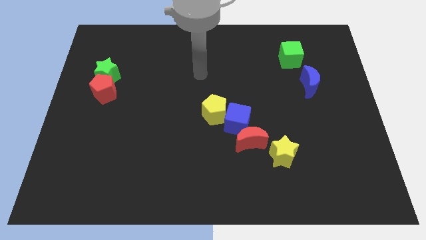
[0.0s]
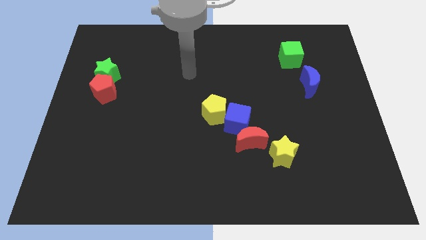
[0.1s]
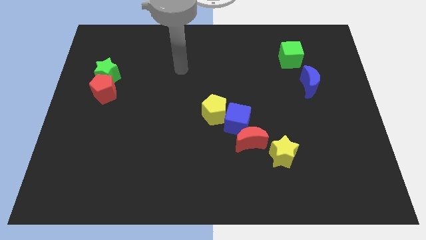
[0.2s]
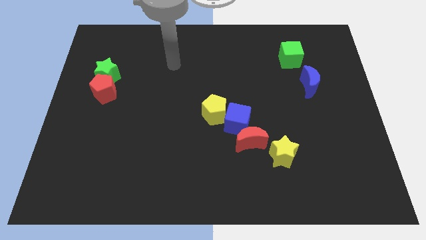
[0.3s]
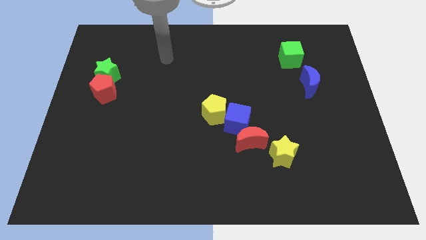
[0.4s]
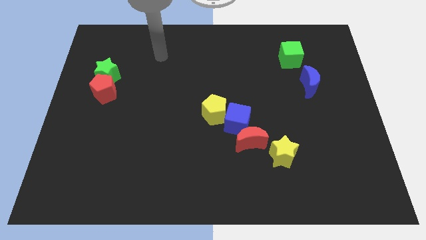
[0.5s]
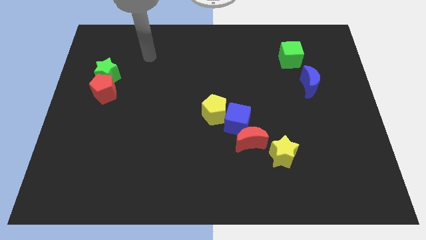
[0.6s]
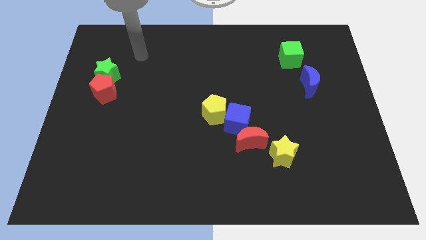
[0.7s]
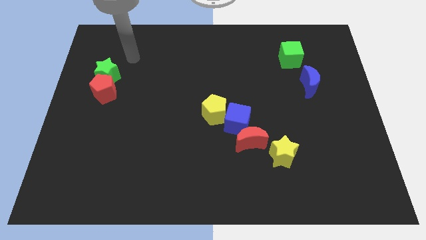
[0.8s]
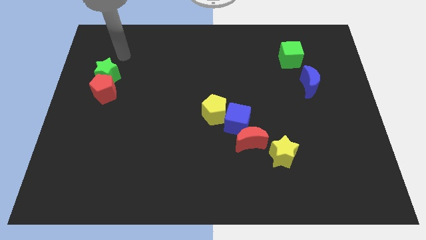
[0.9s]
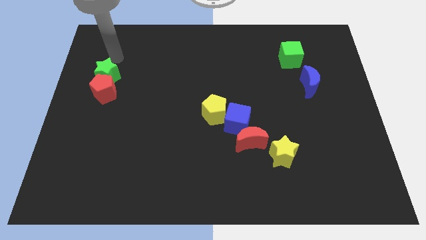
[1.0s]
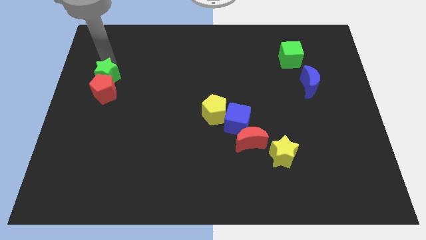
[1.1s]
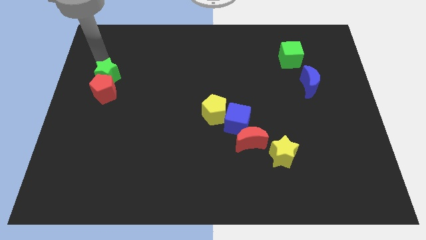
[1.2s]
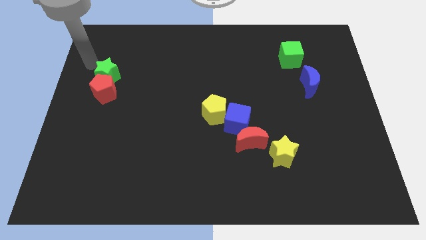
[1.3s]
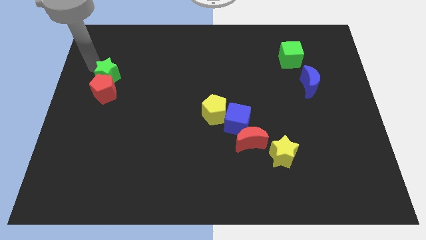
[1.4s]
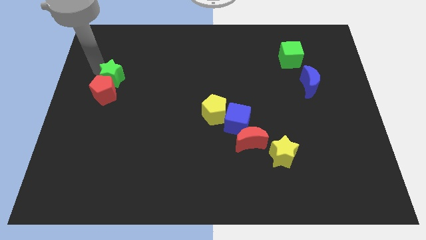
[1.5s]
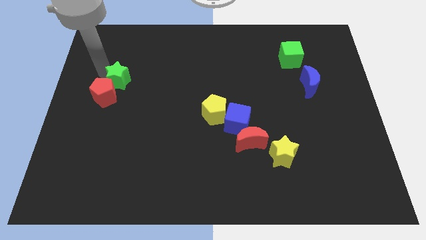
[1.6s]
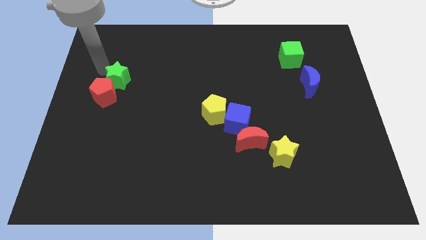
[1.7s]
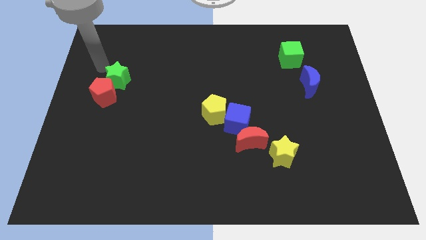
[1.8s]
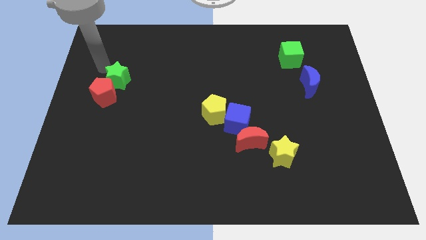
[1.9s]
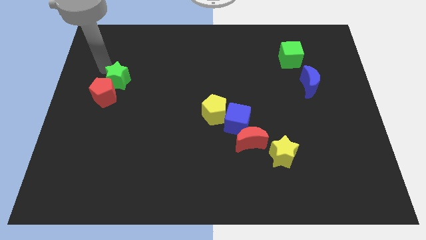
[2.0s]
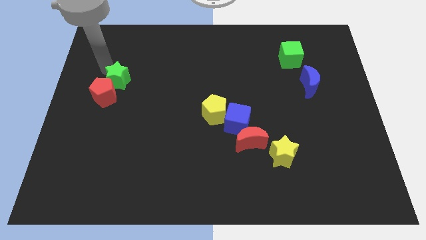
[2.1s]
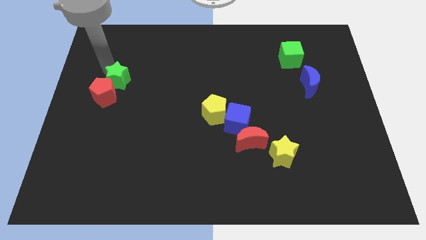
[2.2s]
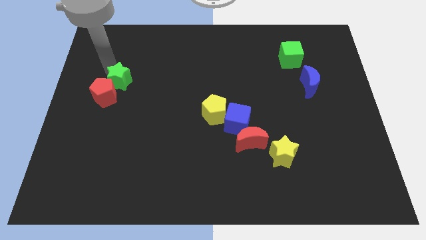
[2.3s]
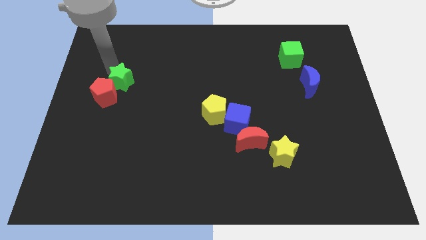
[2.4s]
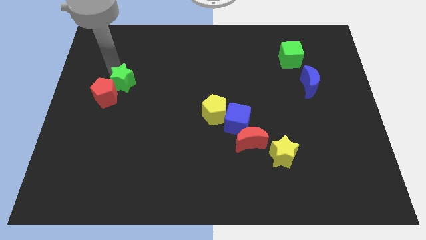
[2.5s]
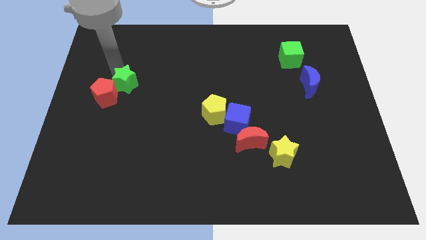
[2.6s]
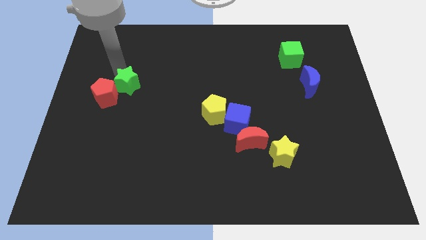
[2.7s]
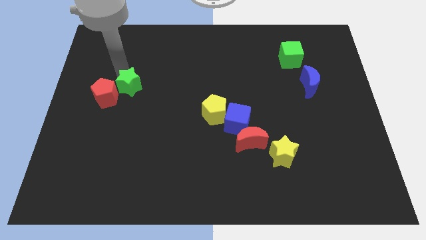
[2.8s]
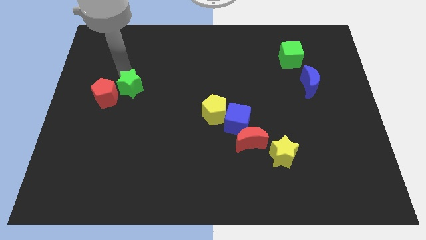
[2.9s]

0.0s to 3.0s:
move the green star down and to the right diagonally a little

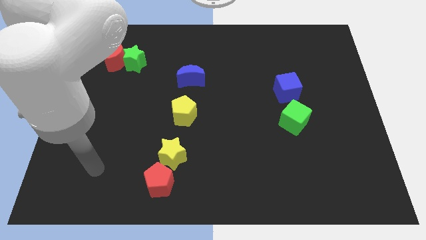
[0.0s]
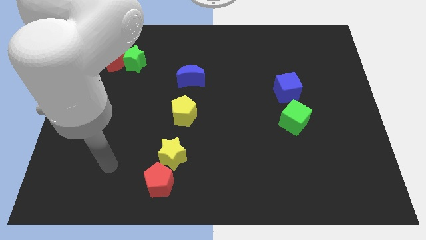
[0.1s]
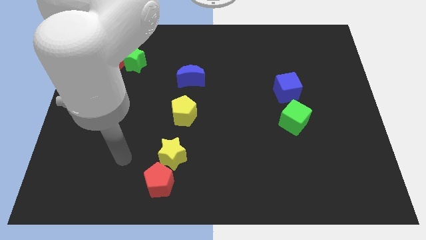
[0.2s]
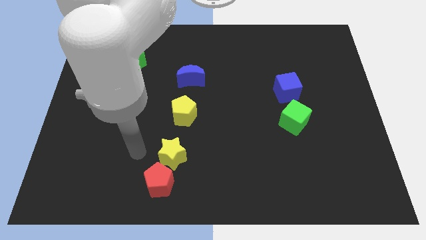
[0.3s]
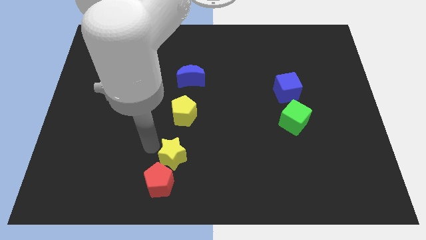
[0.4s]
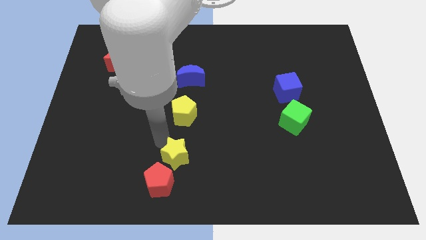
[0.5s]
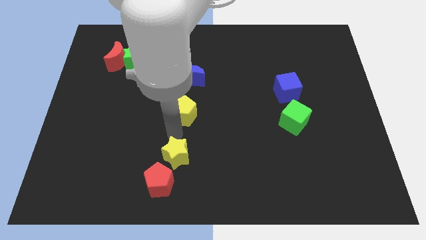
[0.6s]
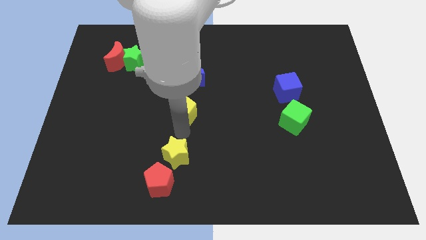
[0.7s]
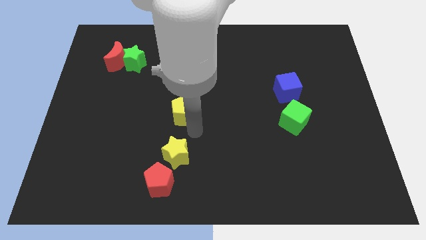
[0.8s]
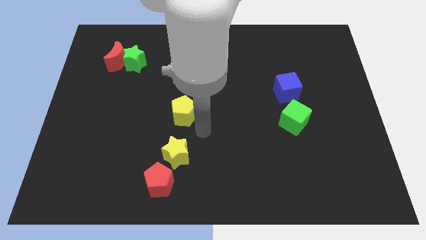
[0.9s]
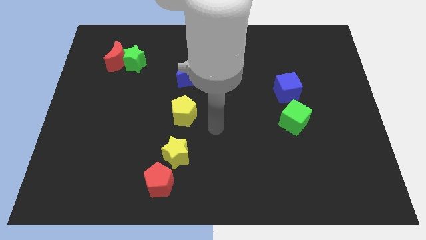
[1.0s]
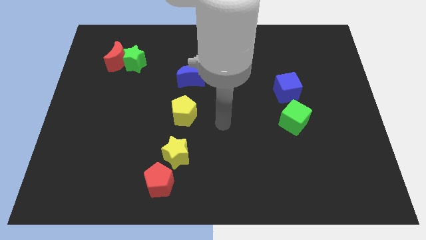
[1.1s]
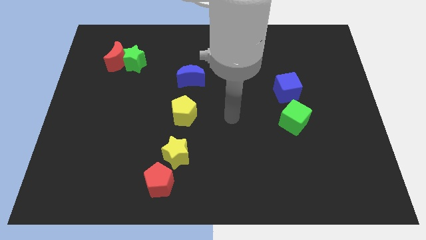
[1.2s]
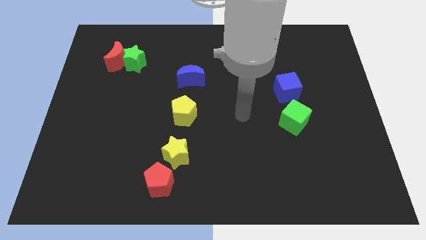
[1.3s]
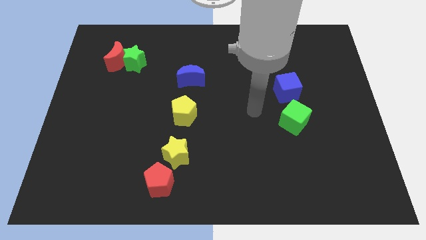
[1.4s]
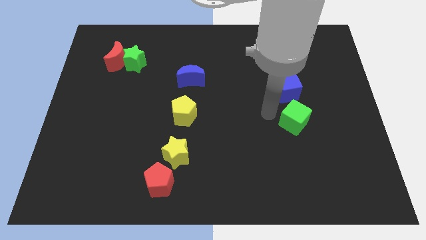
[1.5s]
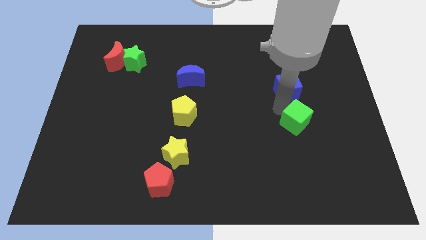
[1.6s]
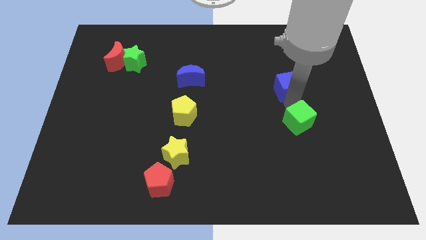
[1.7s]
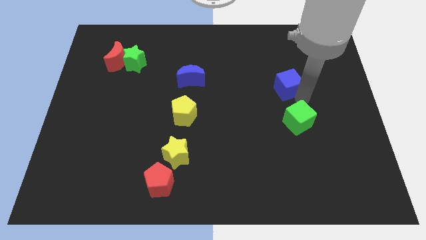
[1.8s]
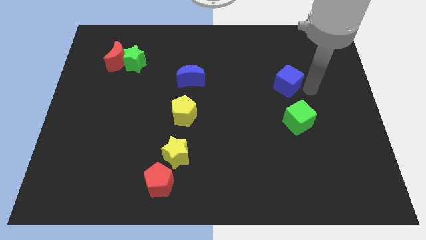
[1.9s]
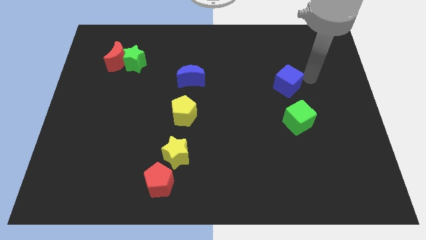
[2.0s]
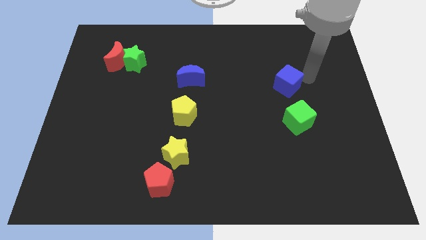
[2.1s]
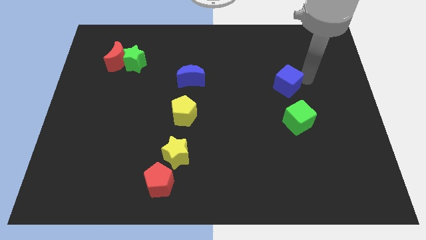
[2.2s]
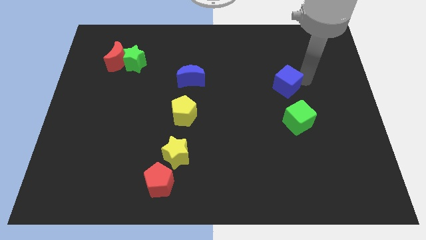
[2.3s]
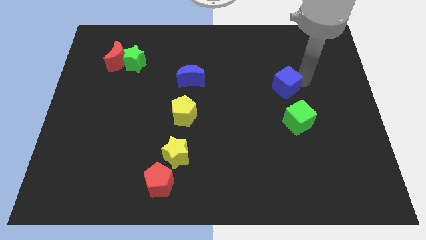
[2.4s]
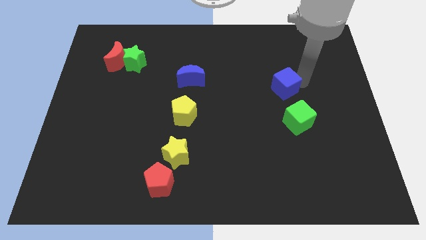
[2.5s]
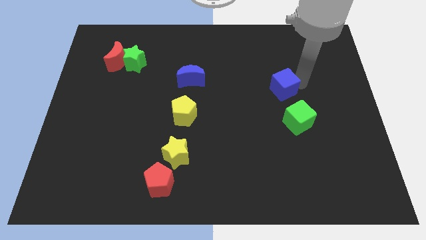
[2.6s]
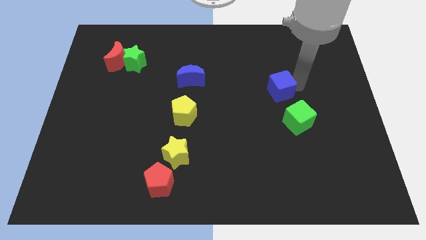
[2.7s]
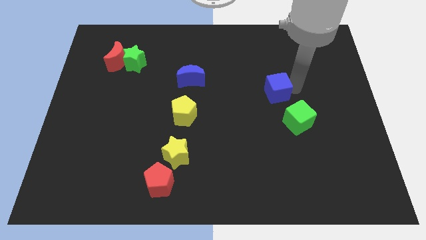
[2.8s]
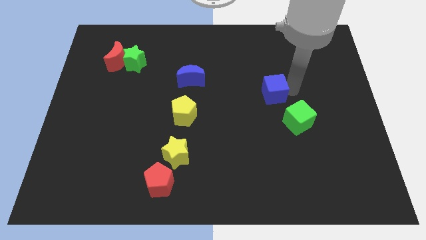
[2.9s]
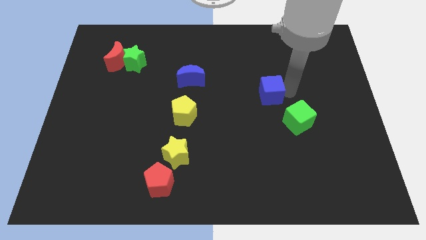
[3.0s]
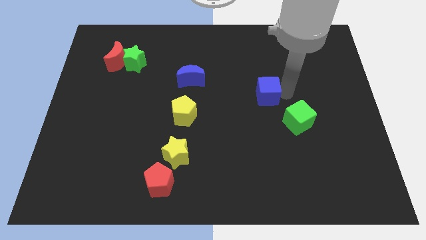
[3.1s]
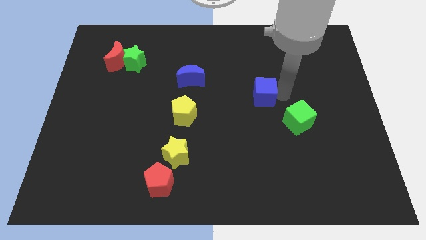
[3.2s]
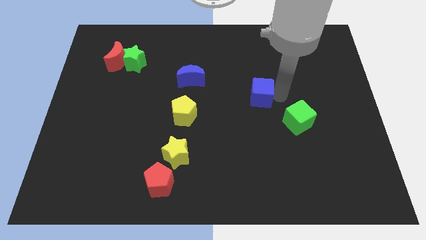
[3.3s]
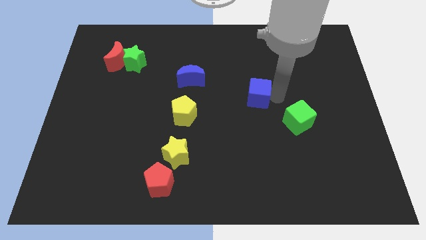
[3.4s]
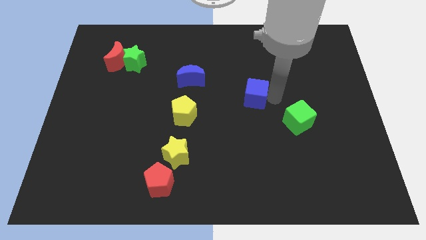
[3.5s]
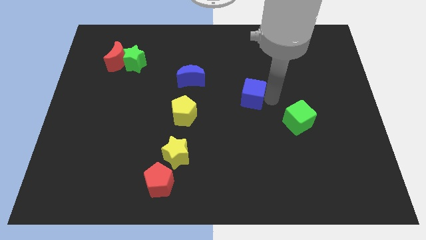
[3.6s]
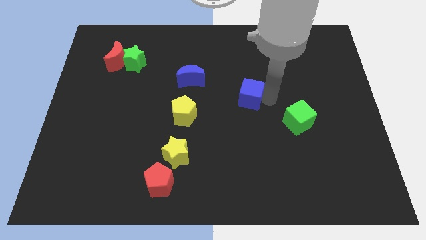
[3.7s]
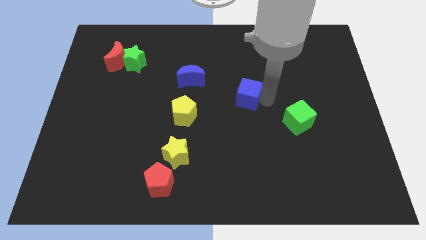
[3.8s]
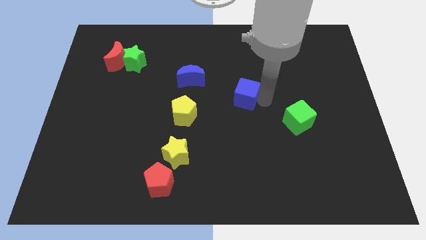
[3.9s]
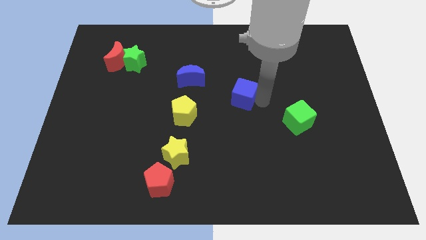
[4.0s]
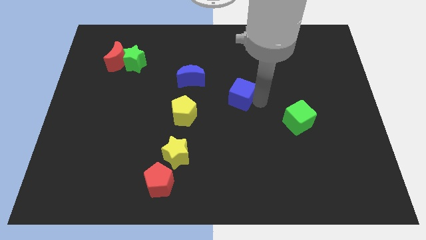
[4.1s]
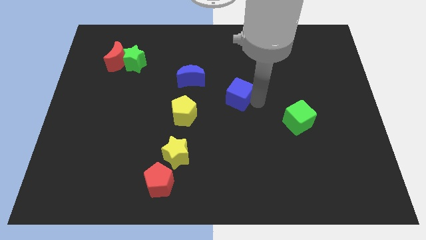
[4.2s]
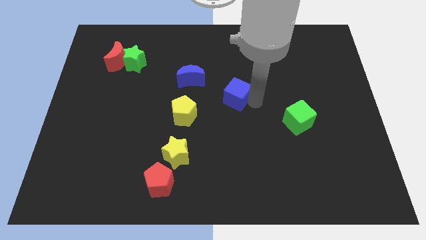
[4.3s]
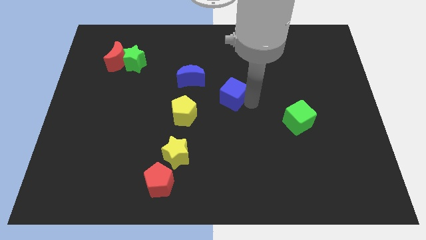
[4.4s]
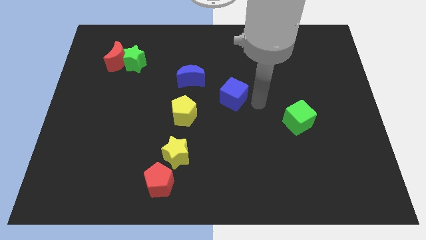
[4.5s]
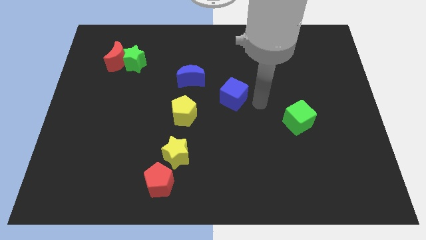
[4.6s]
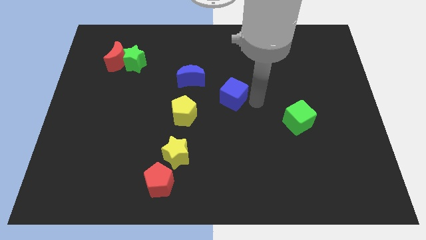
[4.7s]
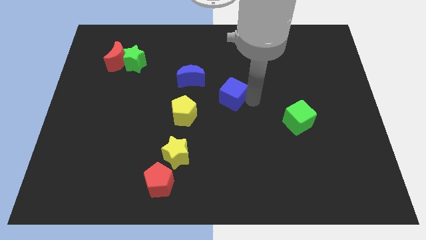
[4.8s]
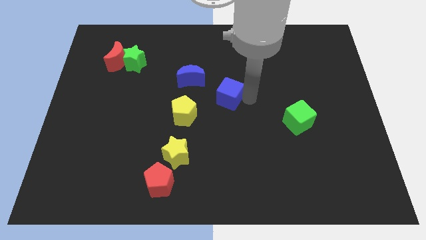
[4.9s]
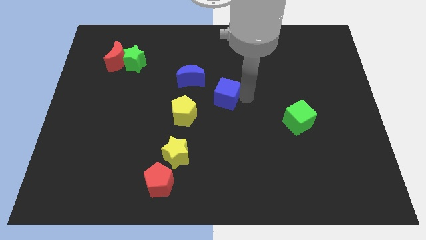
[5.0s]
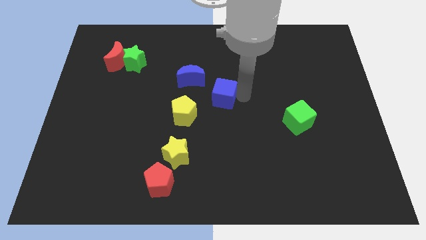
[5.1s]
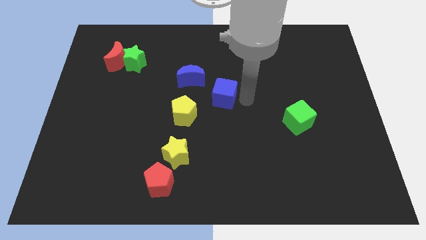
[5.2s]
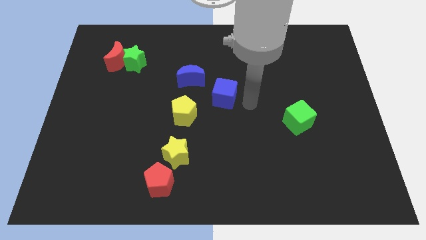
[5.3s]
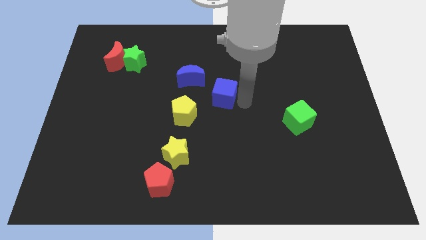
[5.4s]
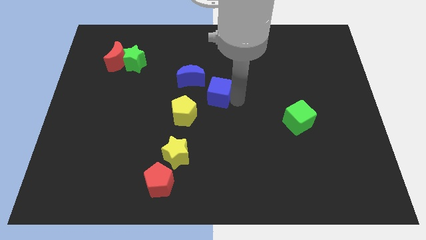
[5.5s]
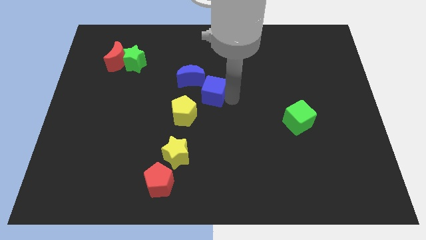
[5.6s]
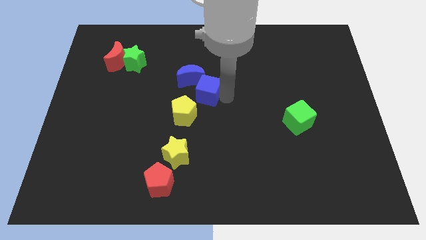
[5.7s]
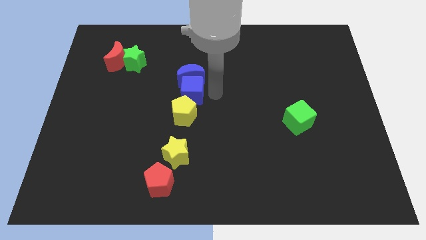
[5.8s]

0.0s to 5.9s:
slide the blue cube left
